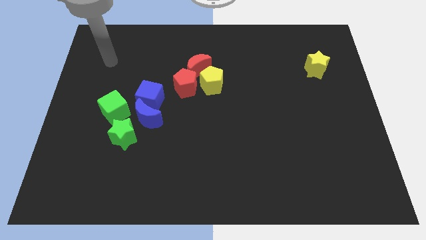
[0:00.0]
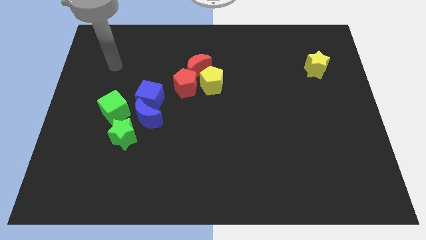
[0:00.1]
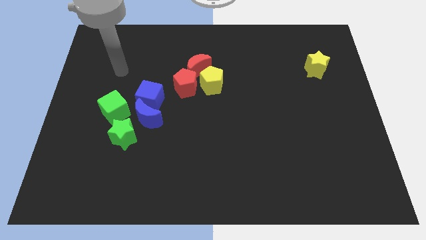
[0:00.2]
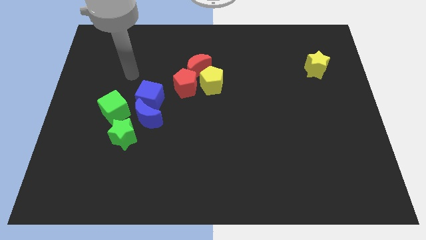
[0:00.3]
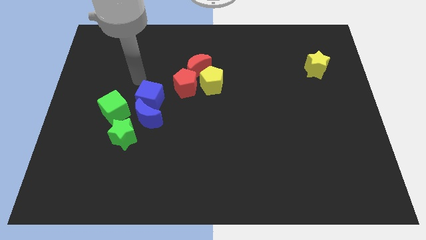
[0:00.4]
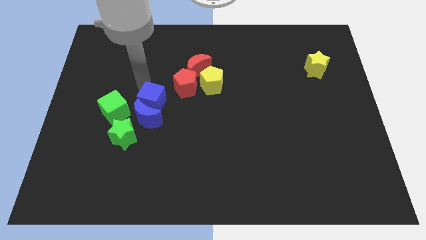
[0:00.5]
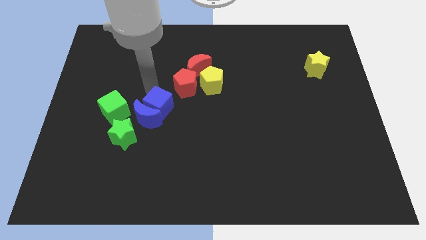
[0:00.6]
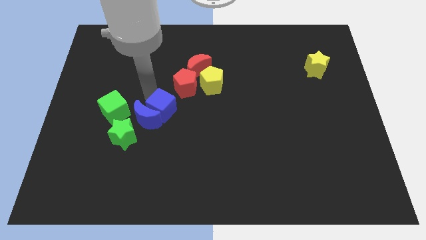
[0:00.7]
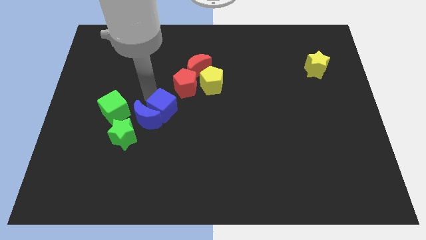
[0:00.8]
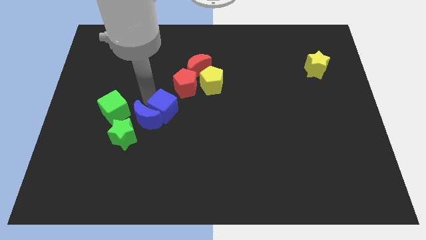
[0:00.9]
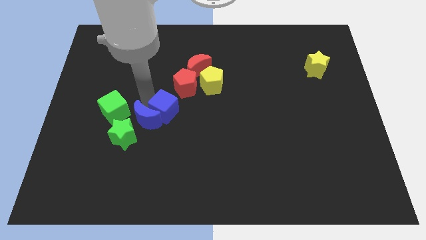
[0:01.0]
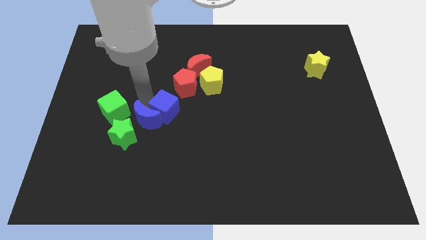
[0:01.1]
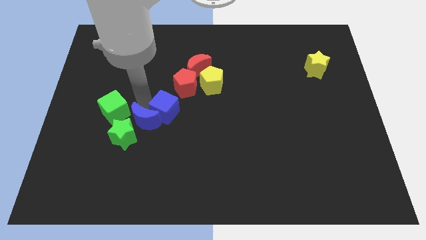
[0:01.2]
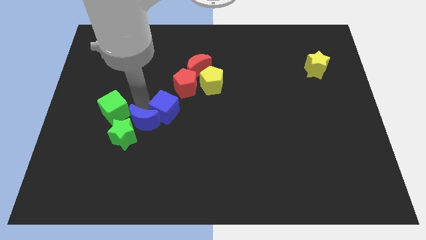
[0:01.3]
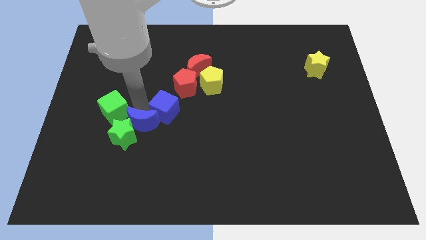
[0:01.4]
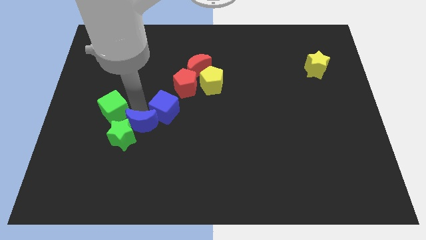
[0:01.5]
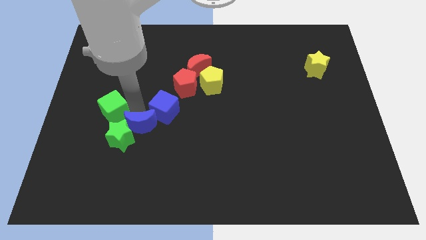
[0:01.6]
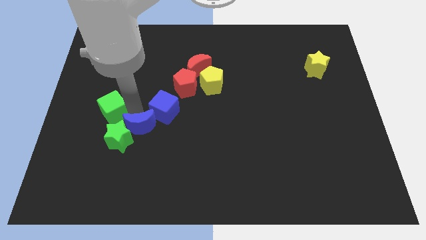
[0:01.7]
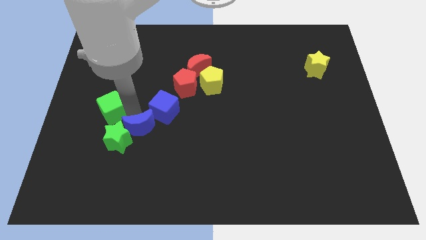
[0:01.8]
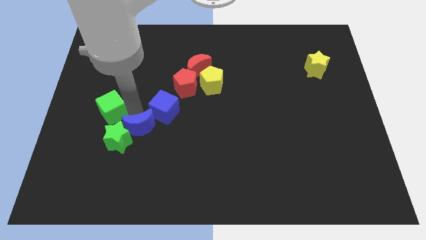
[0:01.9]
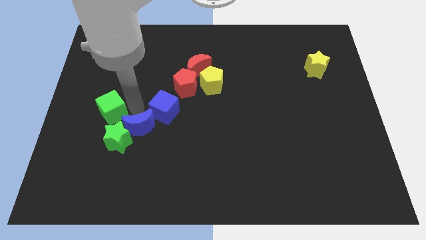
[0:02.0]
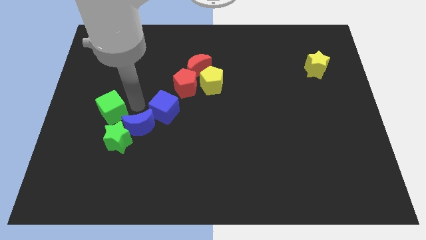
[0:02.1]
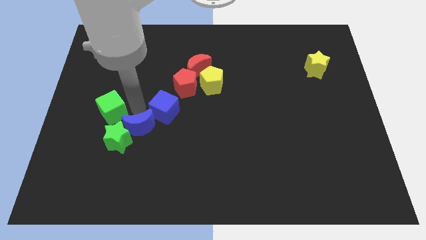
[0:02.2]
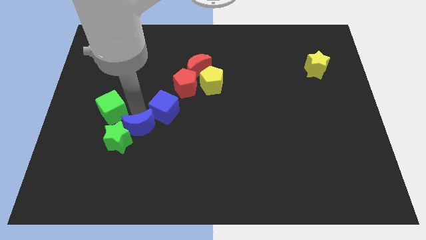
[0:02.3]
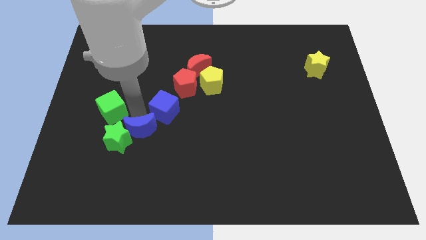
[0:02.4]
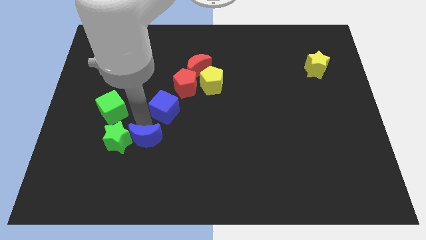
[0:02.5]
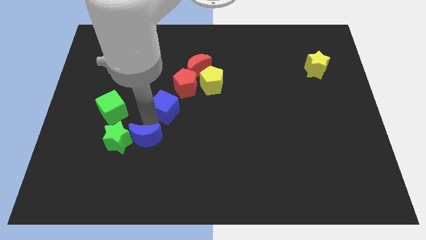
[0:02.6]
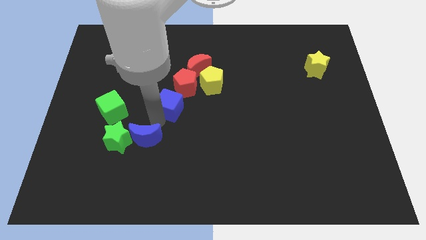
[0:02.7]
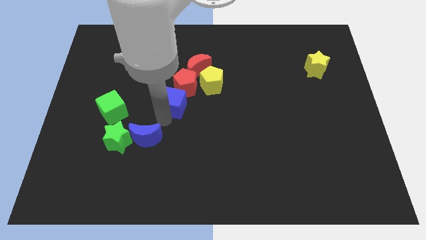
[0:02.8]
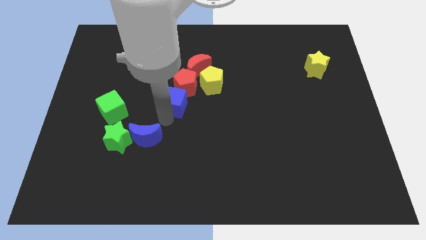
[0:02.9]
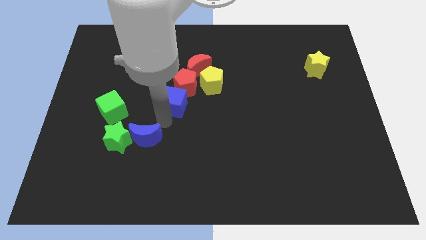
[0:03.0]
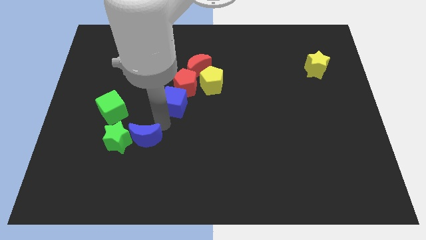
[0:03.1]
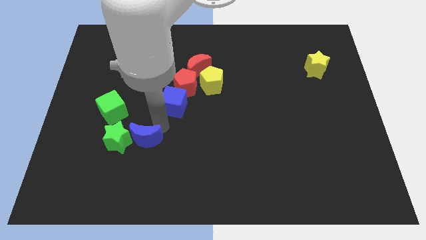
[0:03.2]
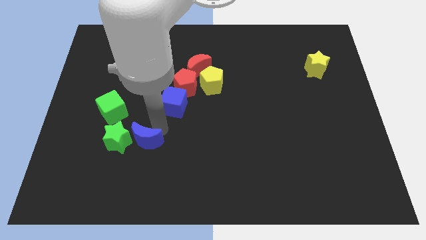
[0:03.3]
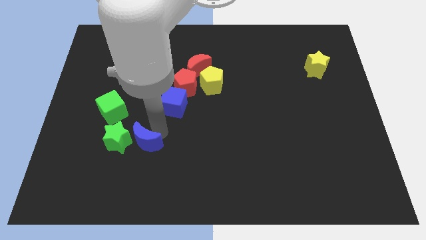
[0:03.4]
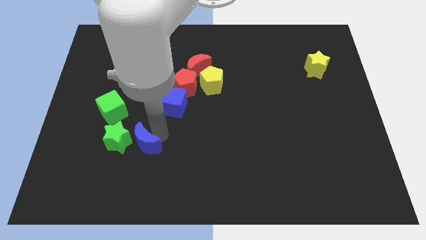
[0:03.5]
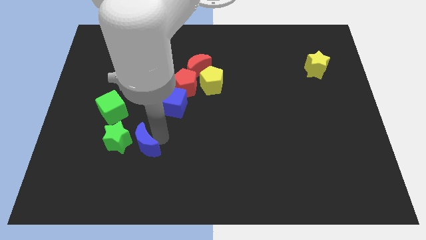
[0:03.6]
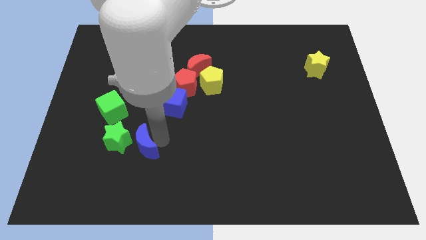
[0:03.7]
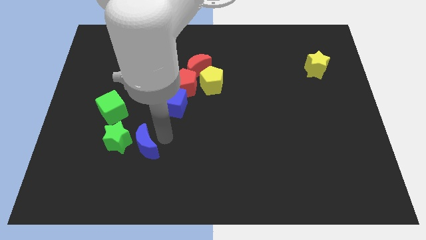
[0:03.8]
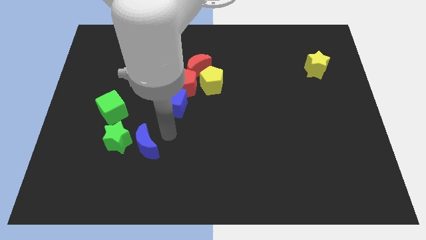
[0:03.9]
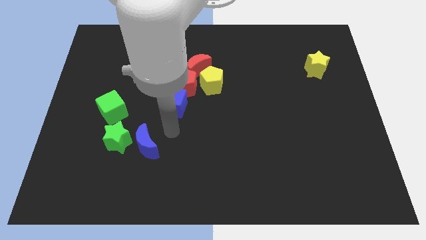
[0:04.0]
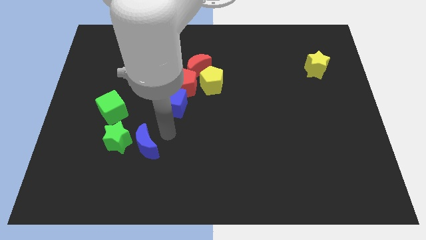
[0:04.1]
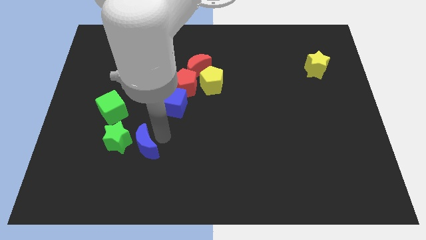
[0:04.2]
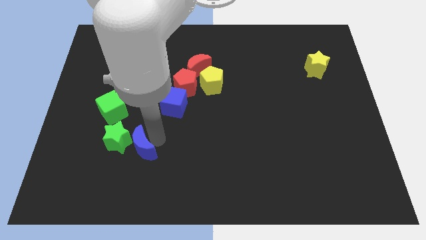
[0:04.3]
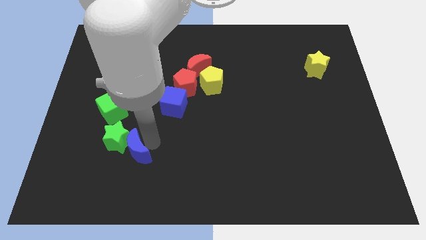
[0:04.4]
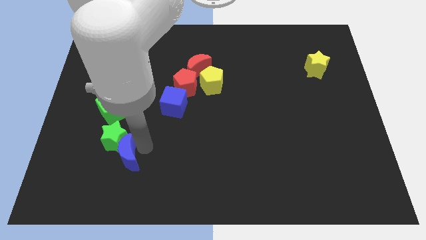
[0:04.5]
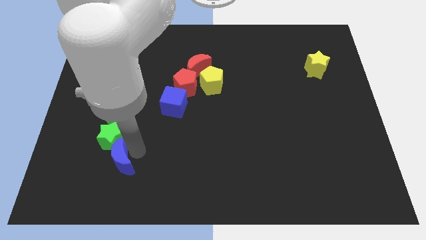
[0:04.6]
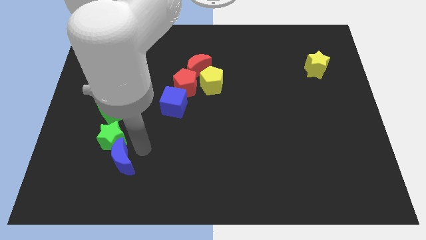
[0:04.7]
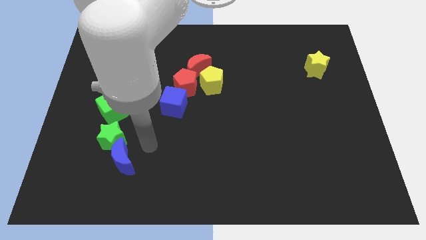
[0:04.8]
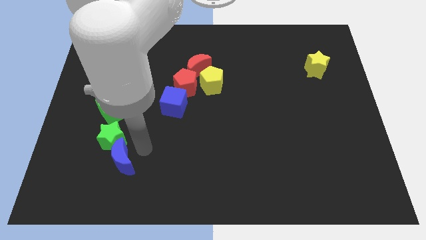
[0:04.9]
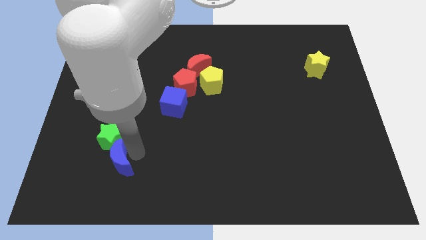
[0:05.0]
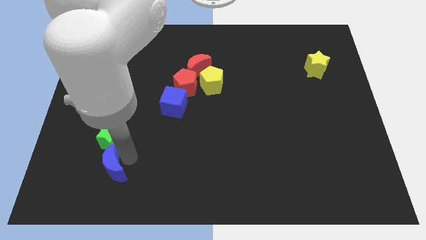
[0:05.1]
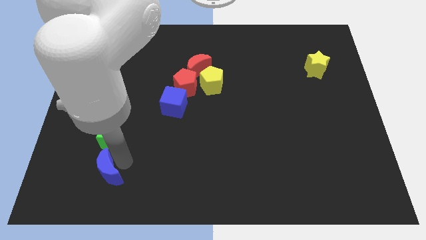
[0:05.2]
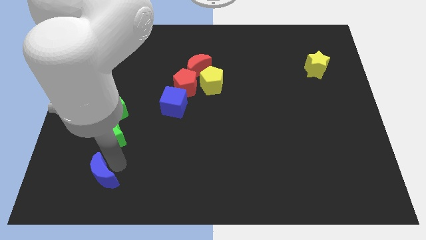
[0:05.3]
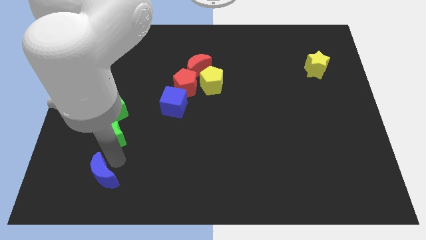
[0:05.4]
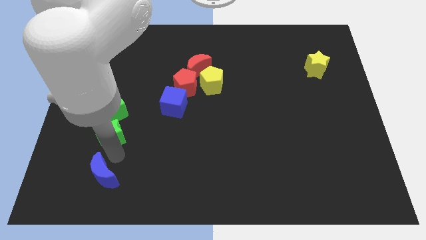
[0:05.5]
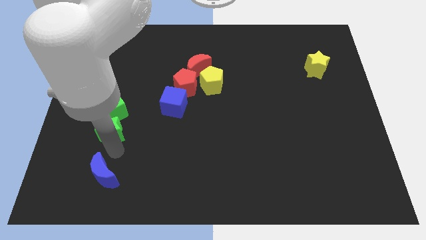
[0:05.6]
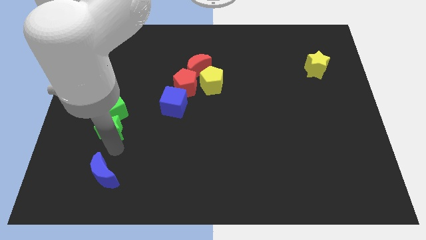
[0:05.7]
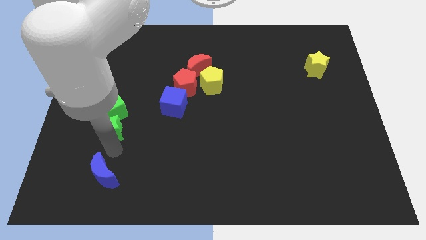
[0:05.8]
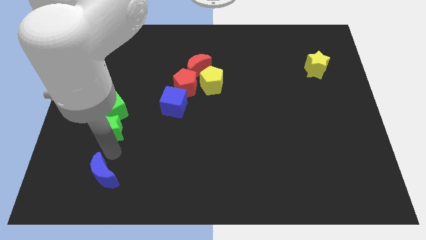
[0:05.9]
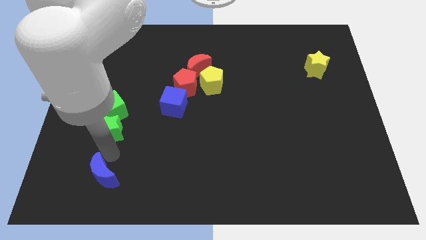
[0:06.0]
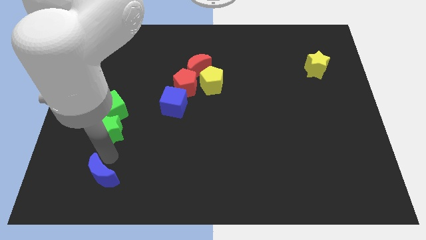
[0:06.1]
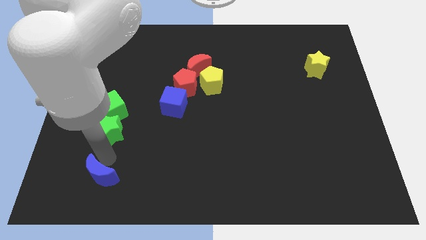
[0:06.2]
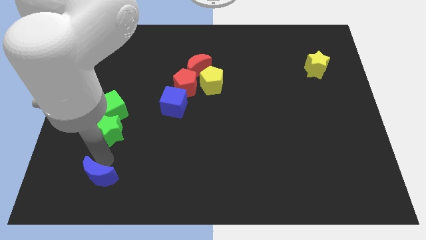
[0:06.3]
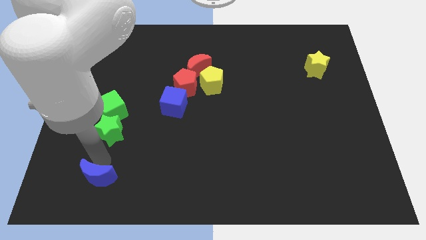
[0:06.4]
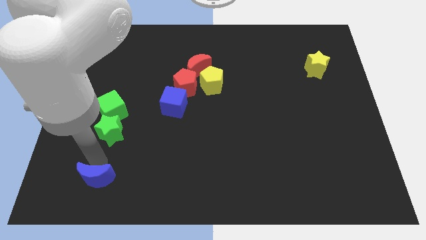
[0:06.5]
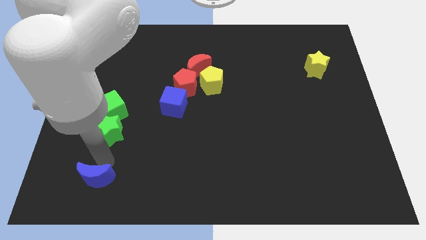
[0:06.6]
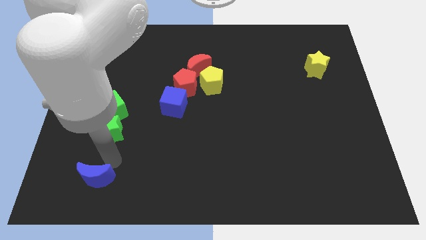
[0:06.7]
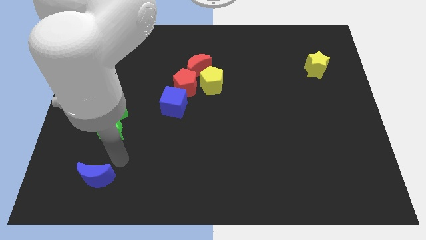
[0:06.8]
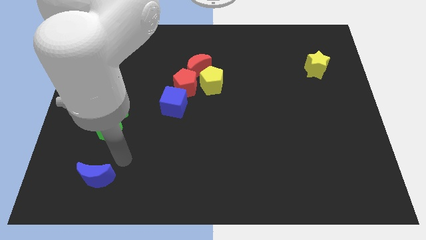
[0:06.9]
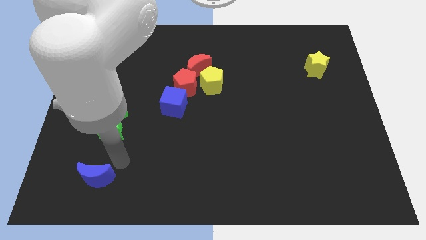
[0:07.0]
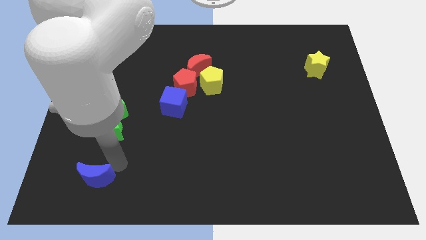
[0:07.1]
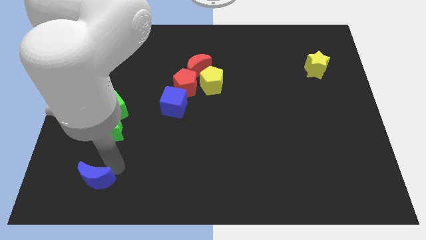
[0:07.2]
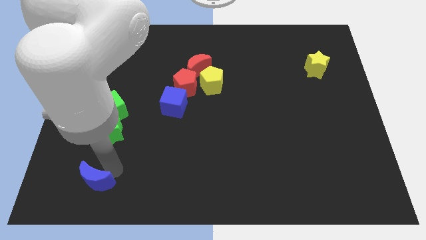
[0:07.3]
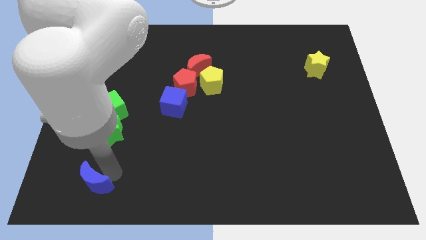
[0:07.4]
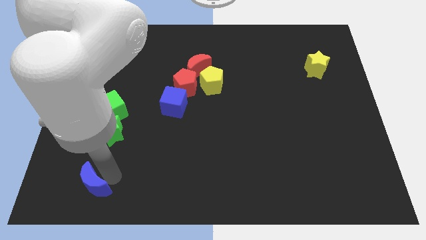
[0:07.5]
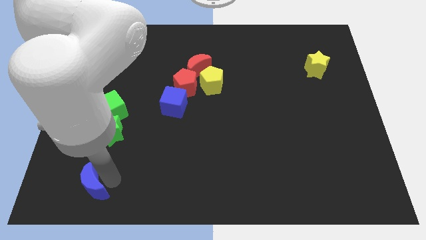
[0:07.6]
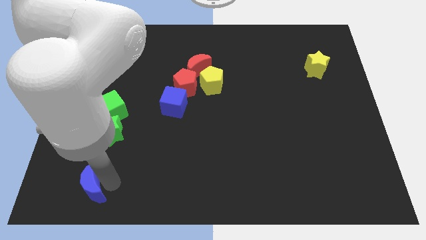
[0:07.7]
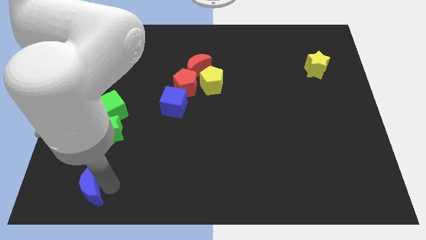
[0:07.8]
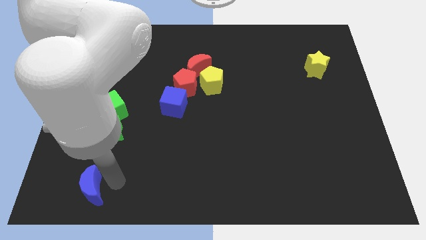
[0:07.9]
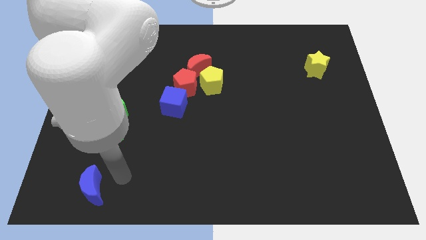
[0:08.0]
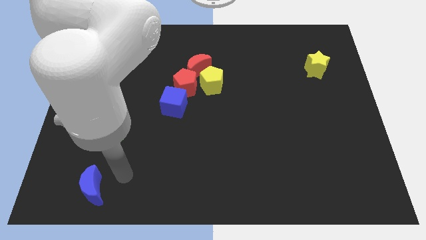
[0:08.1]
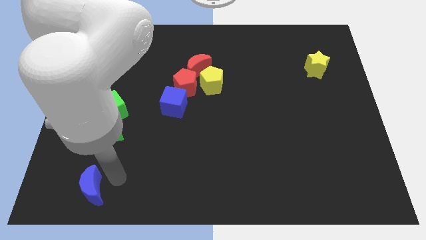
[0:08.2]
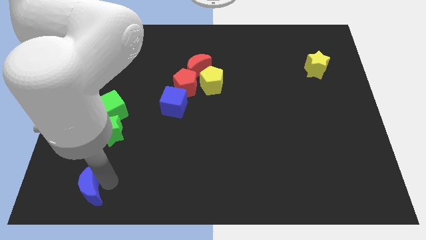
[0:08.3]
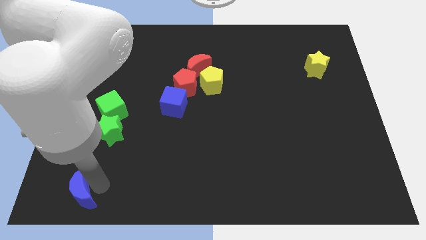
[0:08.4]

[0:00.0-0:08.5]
move the blue moon to the bottom left of the board
